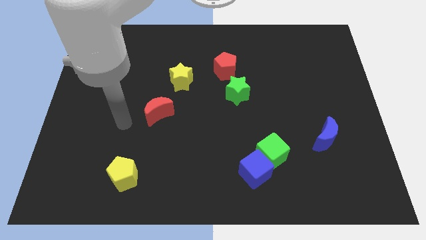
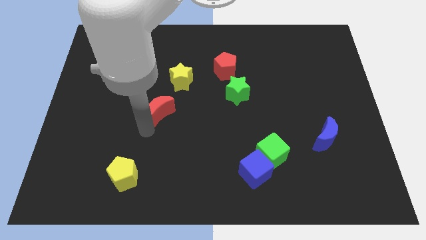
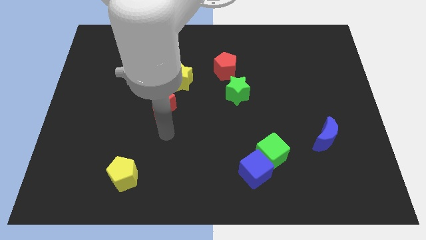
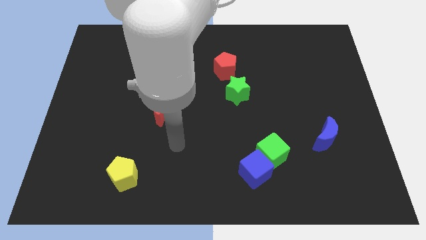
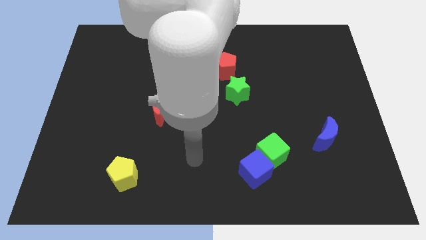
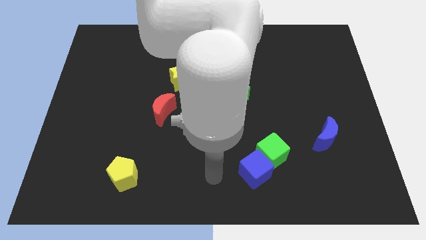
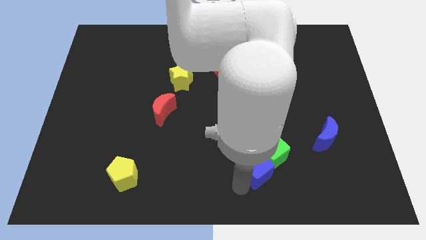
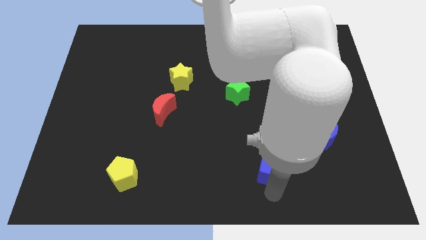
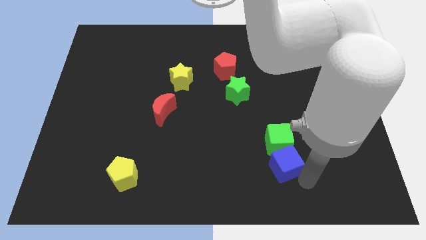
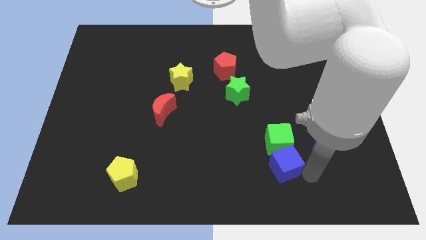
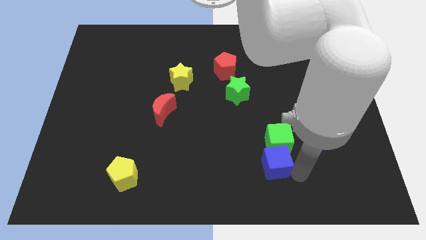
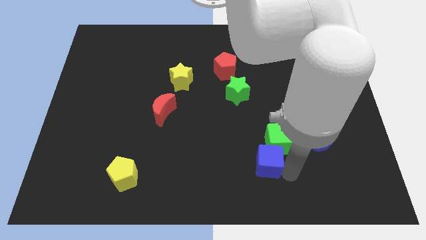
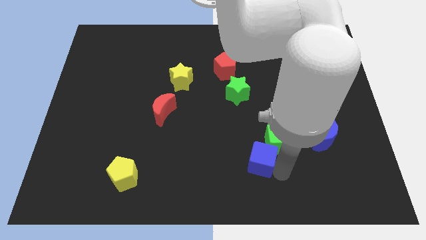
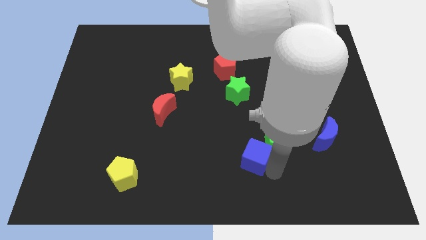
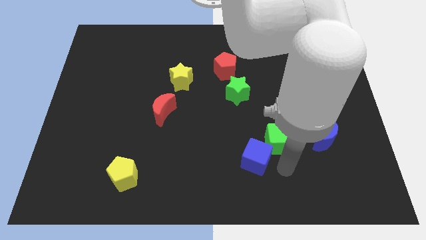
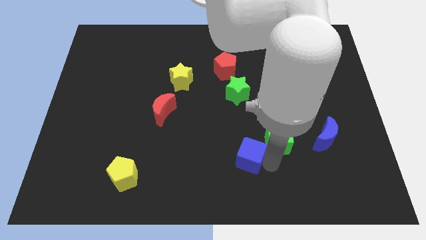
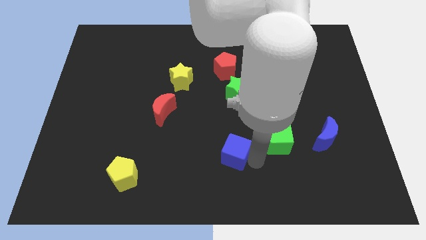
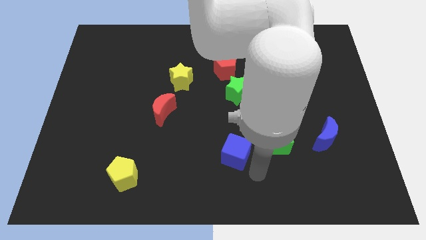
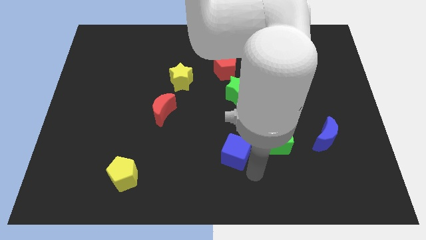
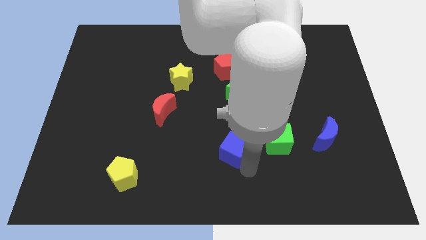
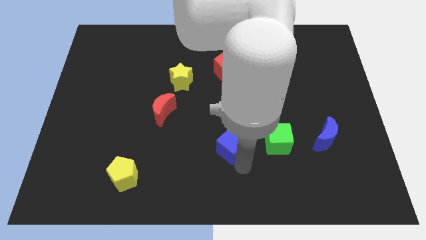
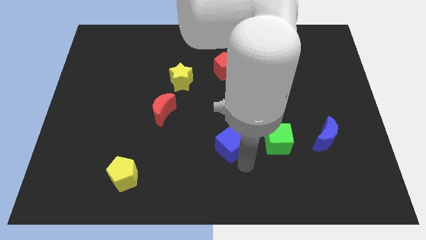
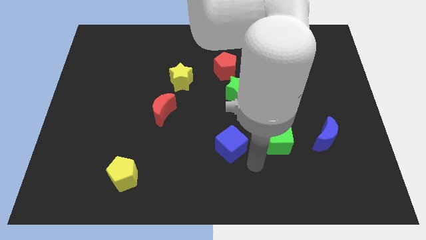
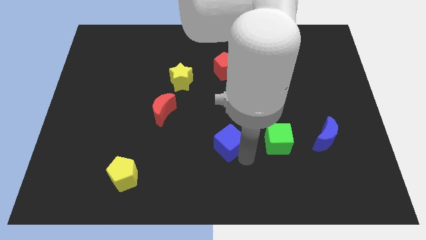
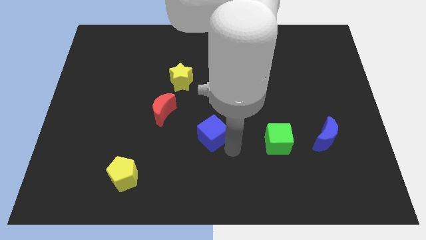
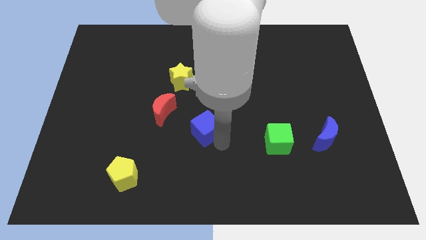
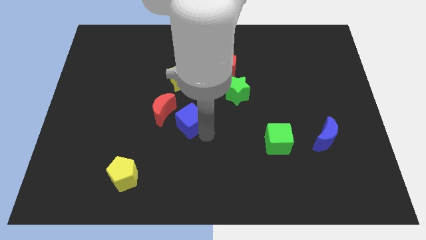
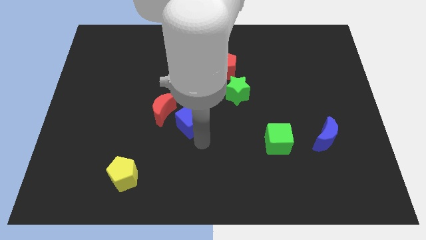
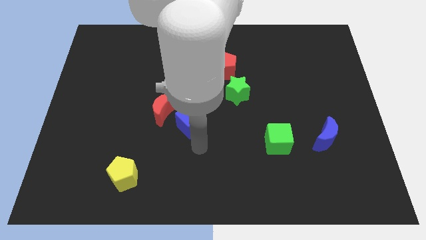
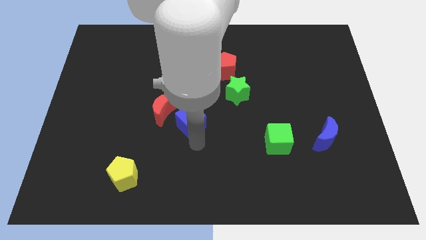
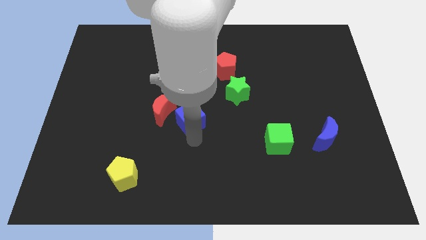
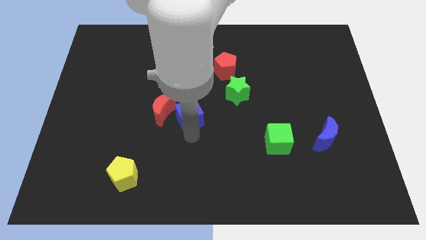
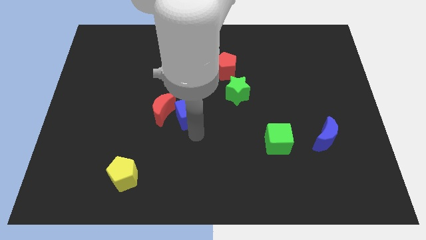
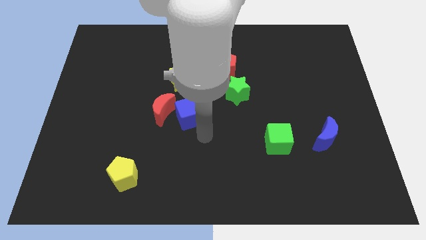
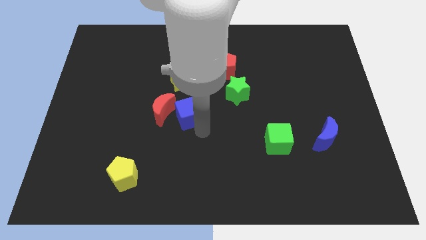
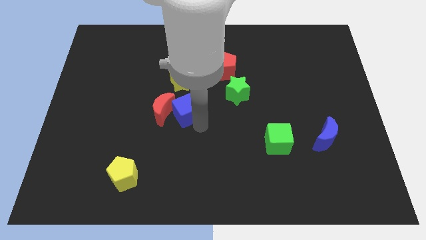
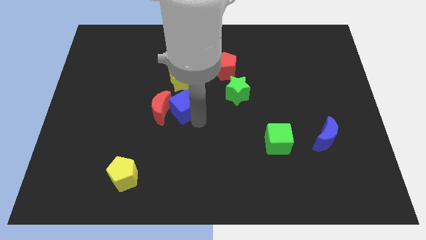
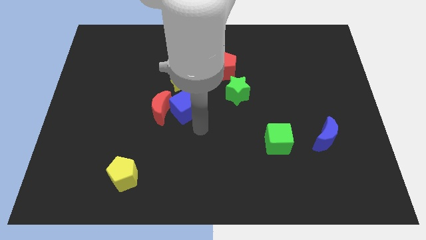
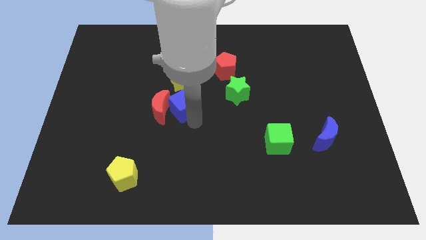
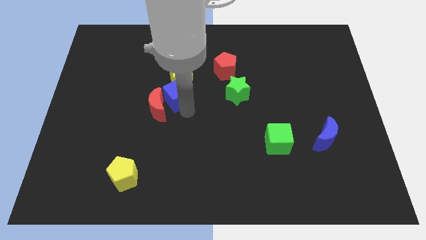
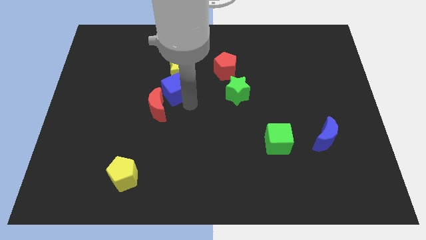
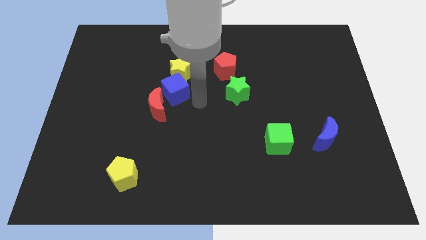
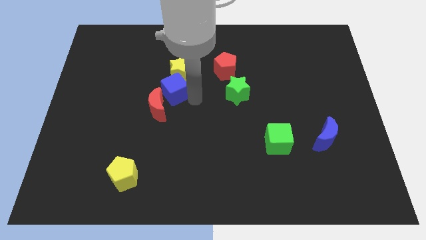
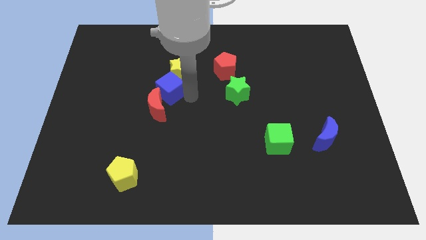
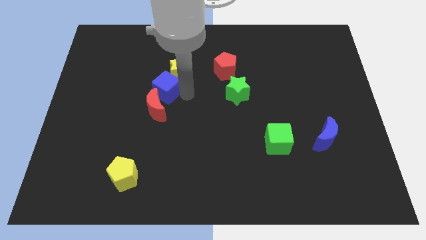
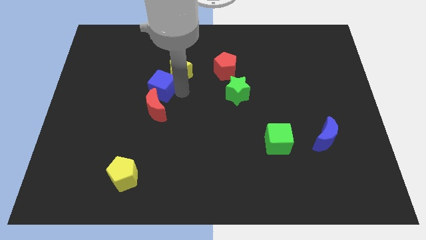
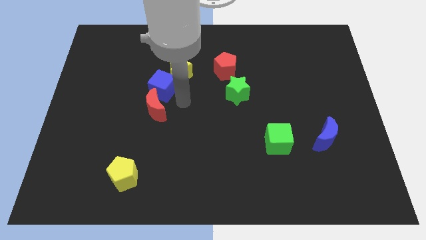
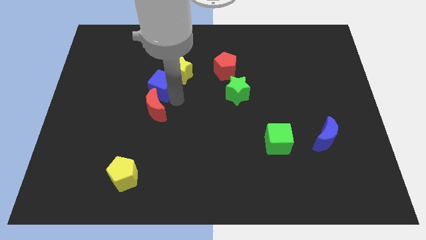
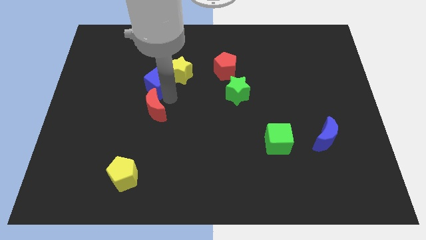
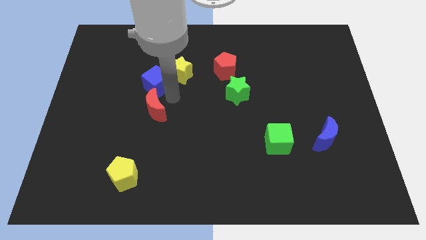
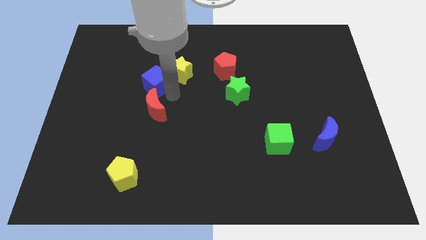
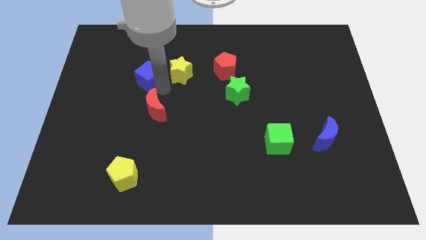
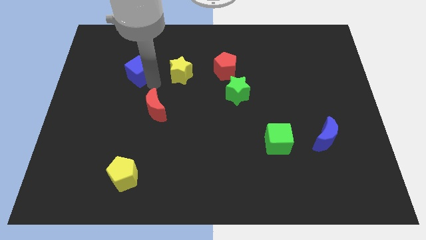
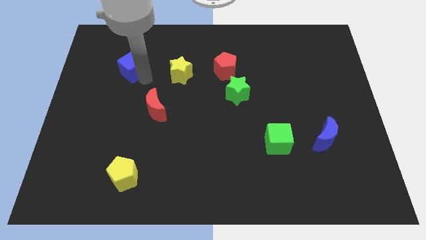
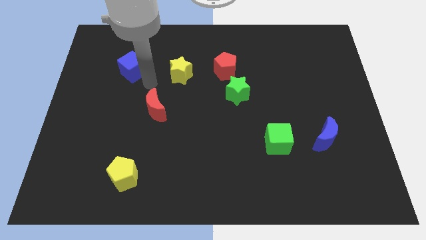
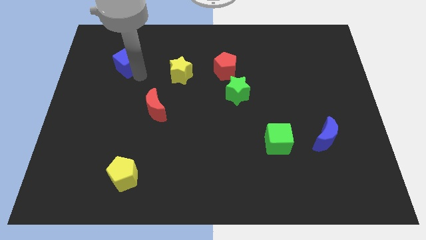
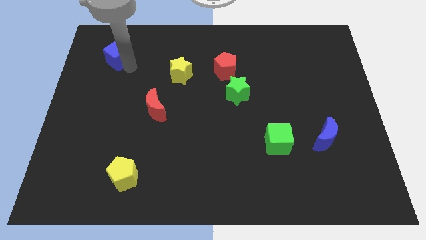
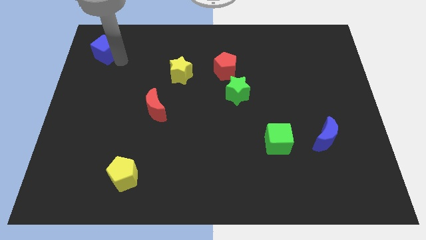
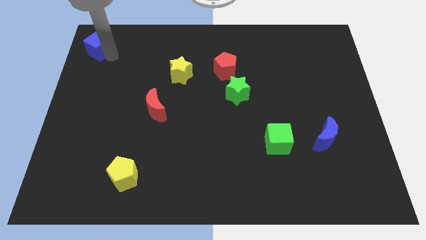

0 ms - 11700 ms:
push the blue cube to the top left of the board
